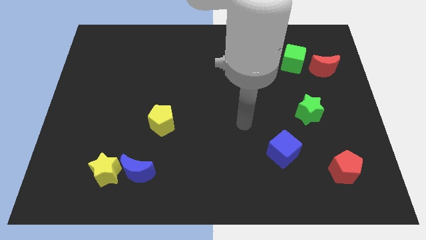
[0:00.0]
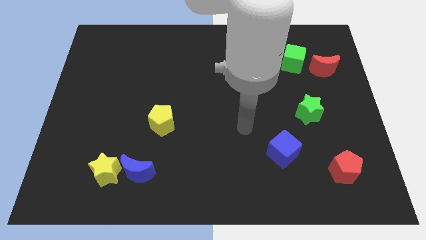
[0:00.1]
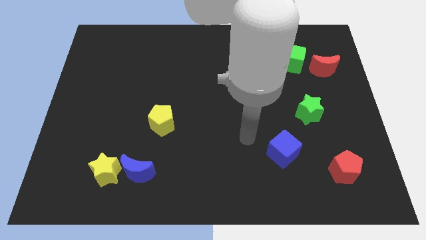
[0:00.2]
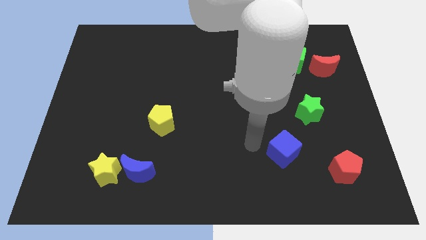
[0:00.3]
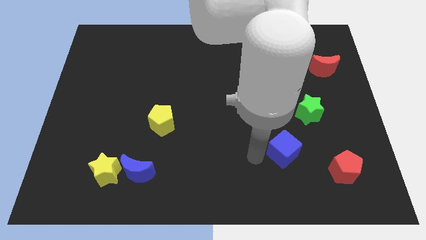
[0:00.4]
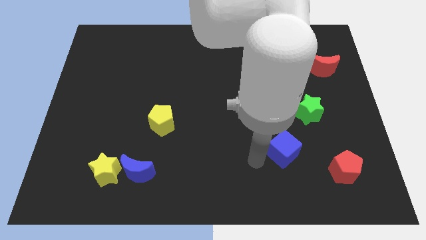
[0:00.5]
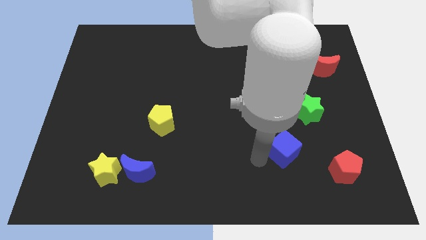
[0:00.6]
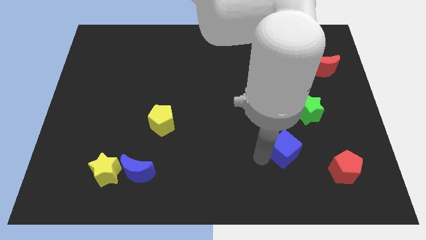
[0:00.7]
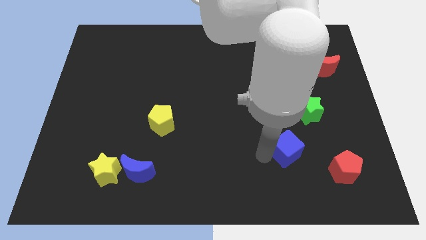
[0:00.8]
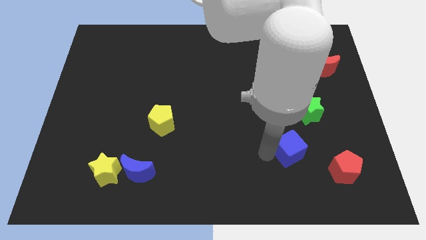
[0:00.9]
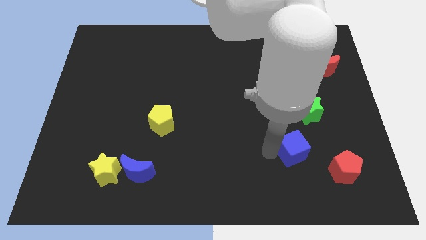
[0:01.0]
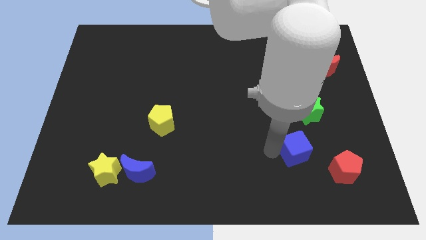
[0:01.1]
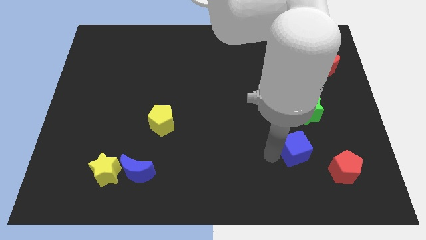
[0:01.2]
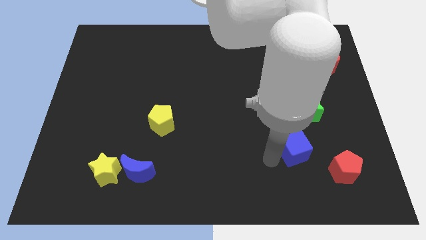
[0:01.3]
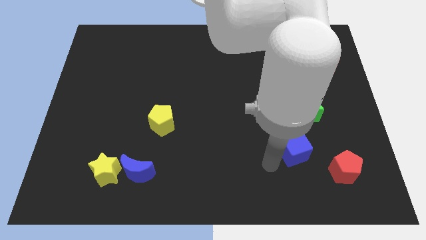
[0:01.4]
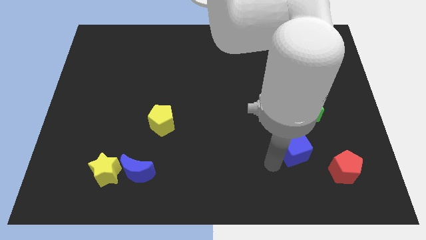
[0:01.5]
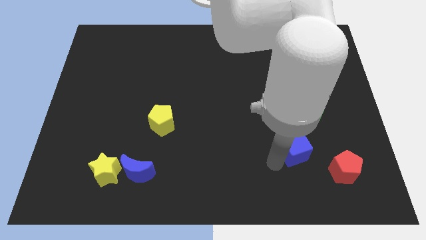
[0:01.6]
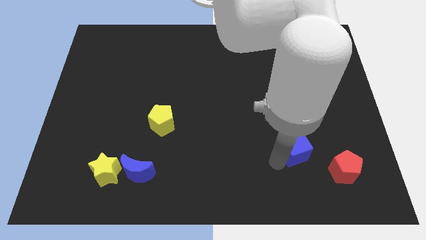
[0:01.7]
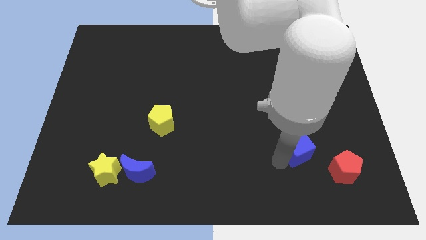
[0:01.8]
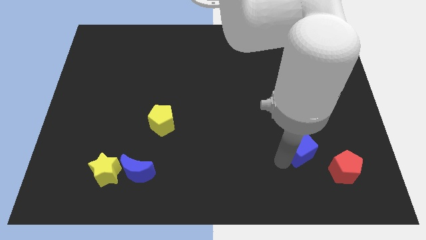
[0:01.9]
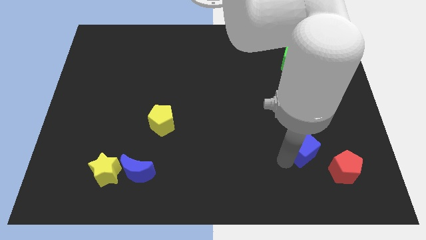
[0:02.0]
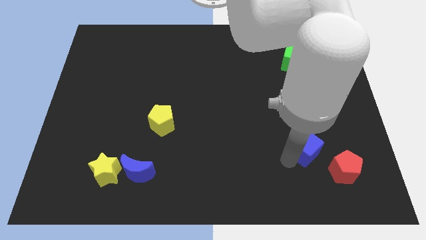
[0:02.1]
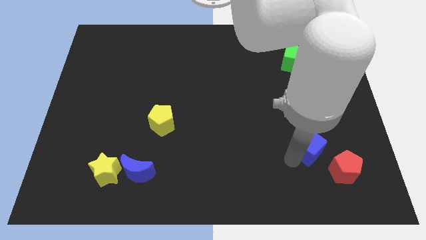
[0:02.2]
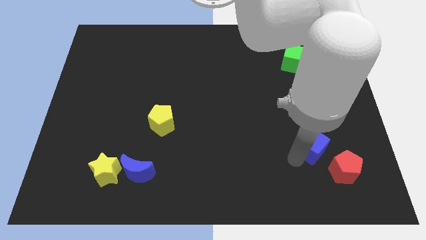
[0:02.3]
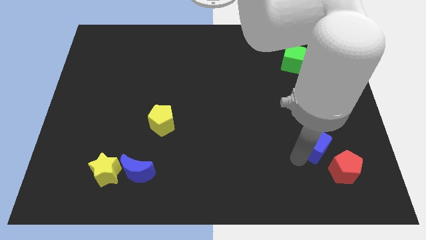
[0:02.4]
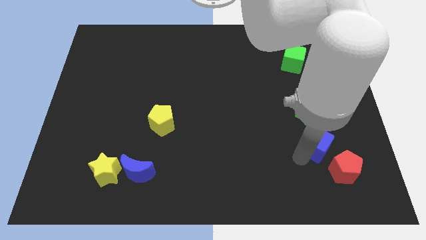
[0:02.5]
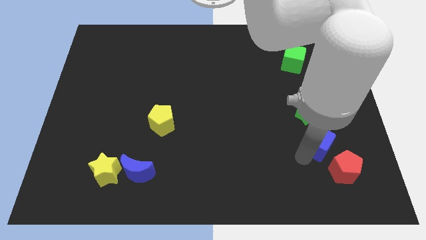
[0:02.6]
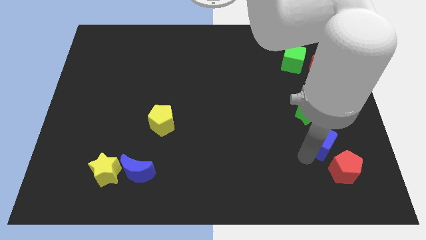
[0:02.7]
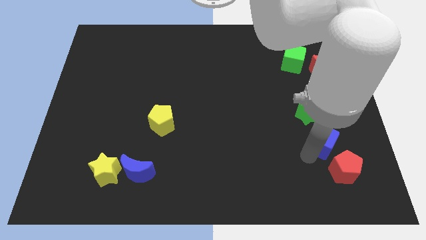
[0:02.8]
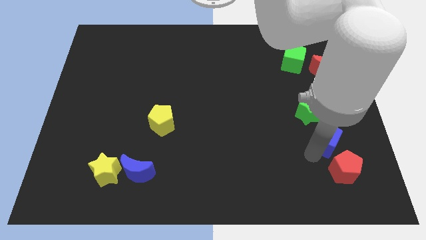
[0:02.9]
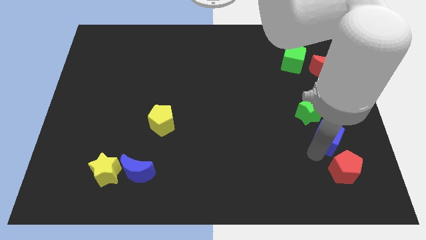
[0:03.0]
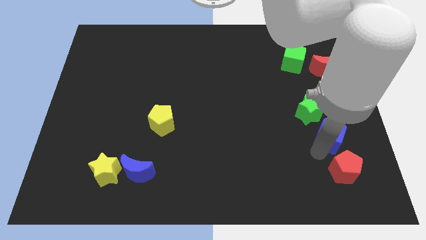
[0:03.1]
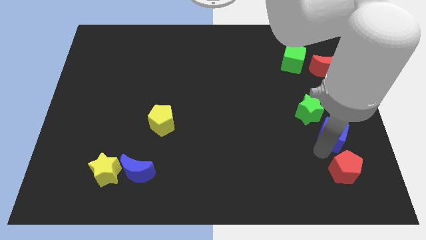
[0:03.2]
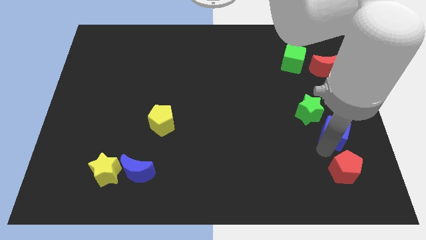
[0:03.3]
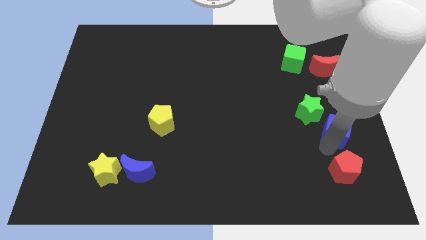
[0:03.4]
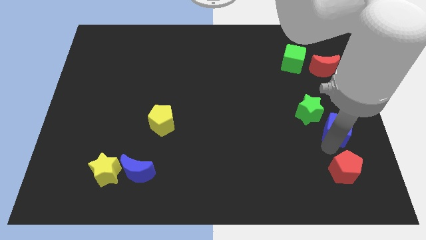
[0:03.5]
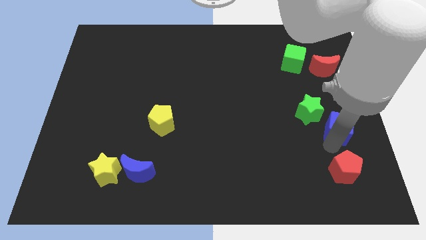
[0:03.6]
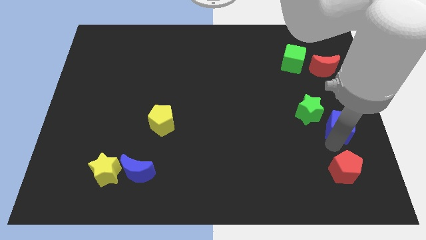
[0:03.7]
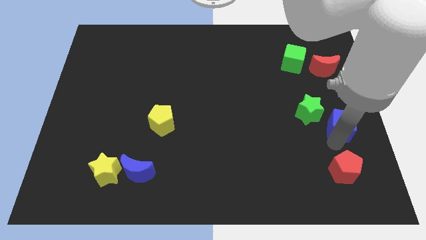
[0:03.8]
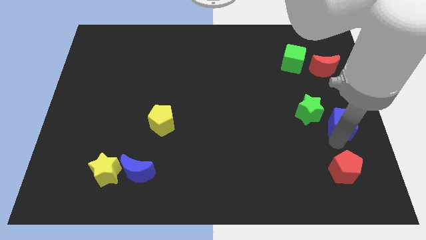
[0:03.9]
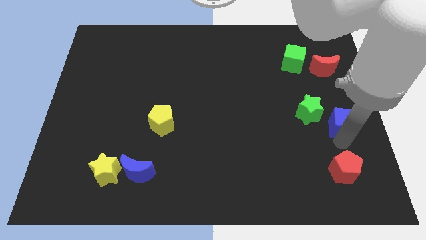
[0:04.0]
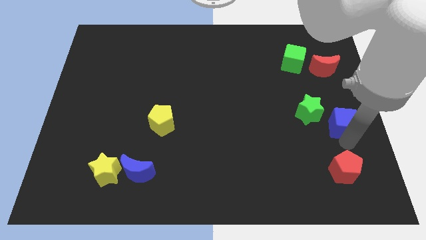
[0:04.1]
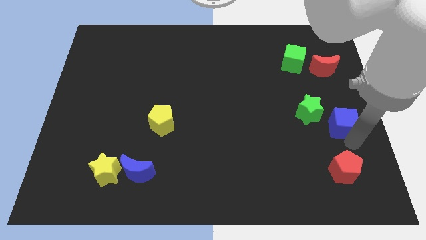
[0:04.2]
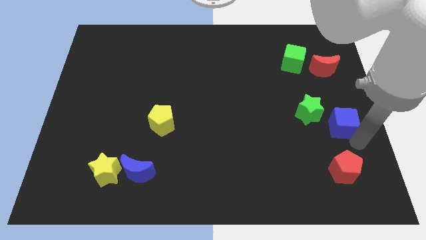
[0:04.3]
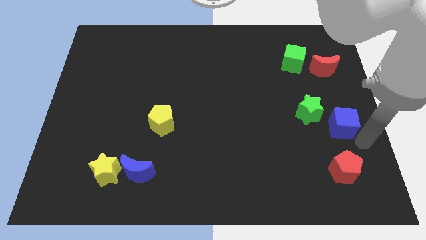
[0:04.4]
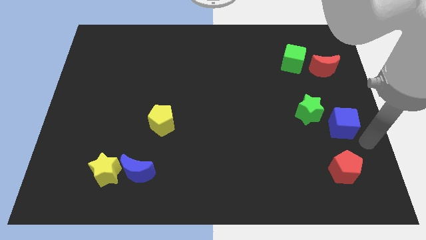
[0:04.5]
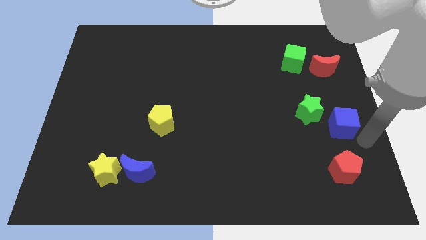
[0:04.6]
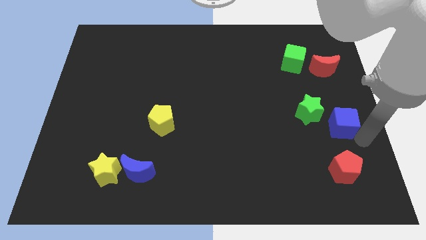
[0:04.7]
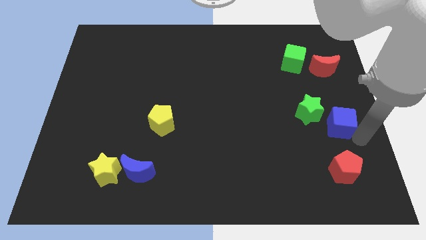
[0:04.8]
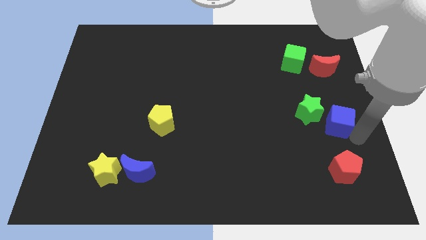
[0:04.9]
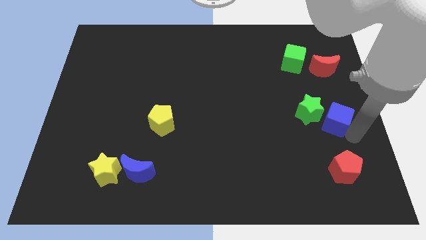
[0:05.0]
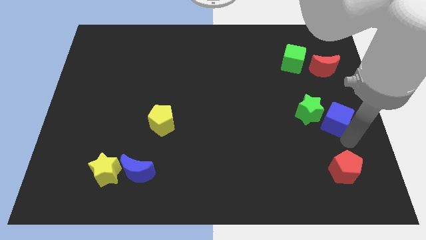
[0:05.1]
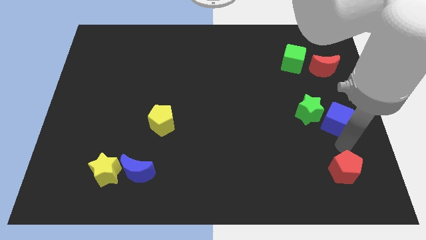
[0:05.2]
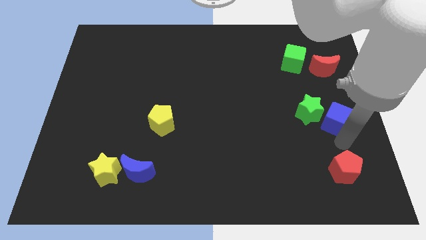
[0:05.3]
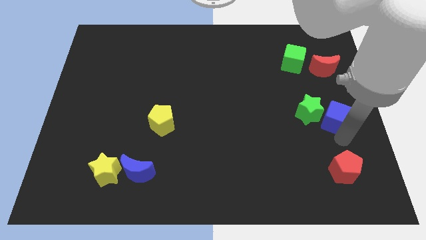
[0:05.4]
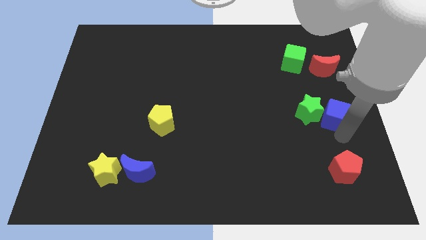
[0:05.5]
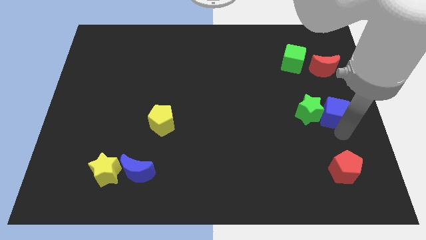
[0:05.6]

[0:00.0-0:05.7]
push the blue cube to the top right of the green star

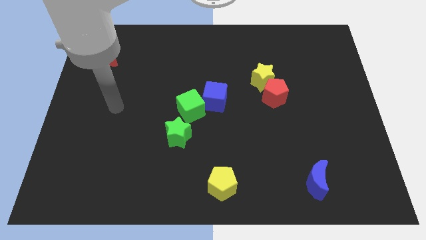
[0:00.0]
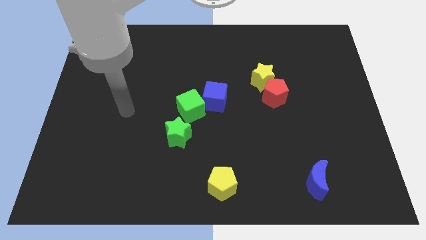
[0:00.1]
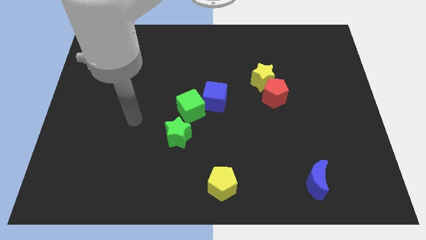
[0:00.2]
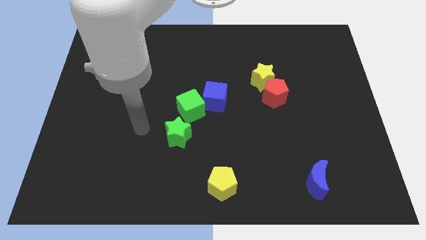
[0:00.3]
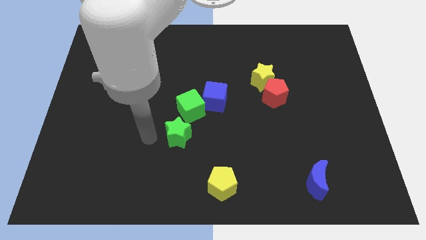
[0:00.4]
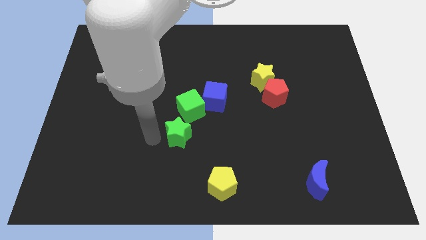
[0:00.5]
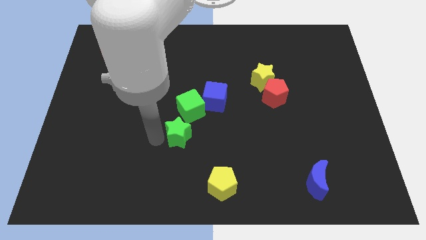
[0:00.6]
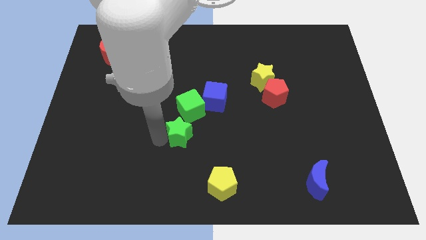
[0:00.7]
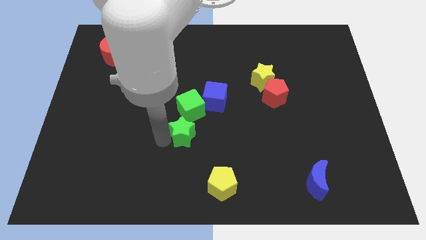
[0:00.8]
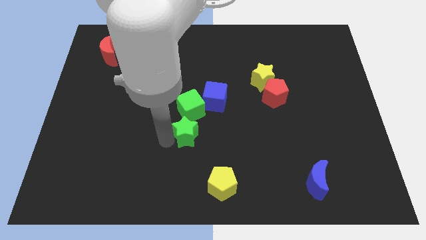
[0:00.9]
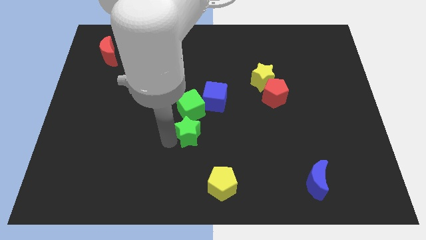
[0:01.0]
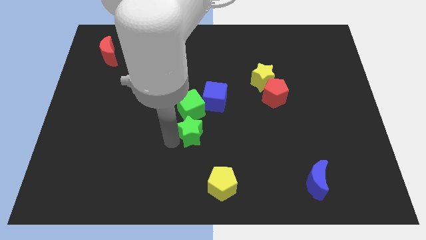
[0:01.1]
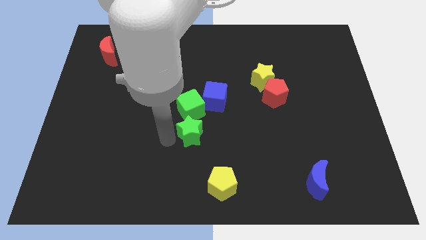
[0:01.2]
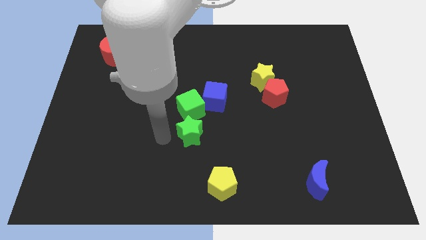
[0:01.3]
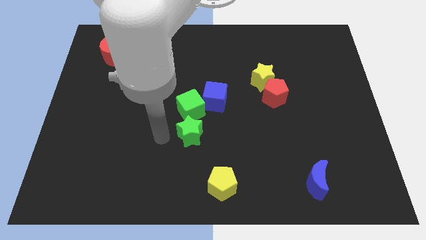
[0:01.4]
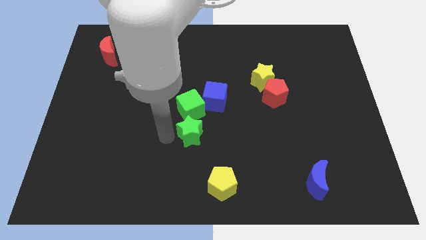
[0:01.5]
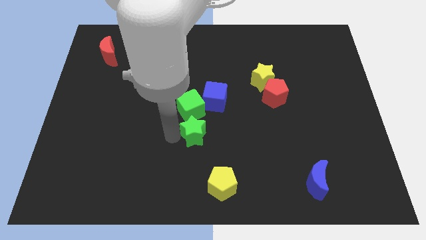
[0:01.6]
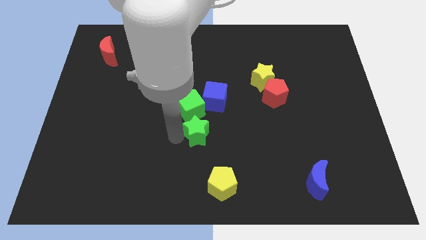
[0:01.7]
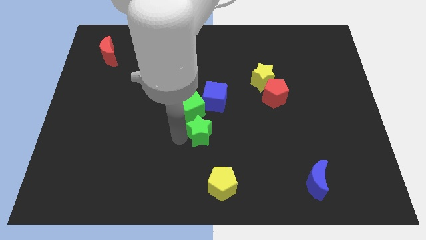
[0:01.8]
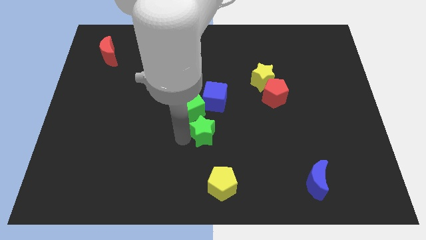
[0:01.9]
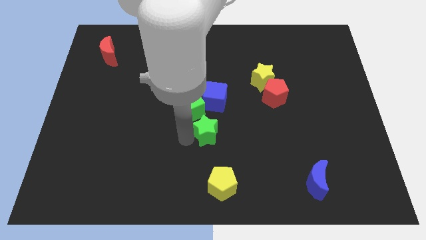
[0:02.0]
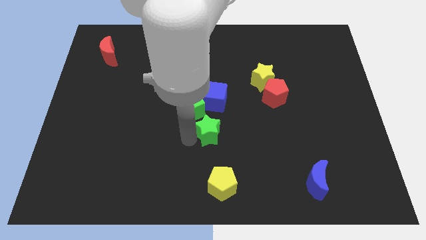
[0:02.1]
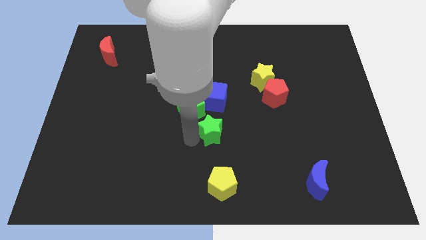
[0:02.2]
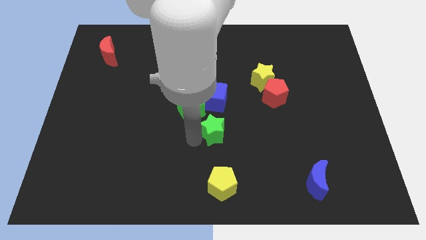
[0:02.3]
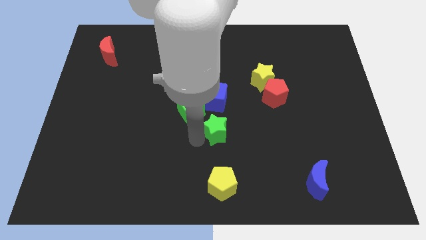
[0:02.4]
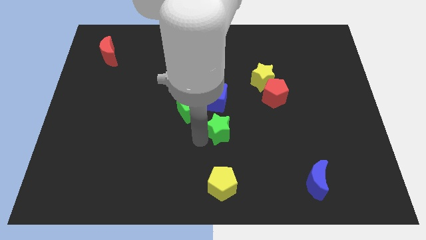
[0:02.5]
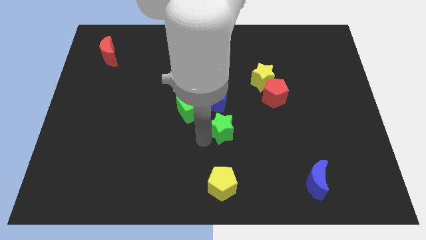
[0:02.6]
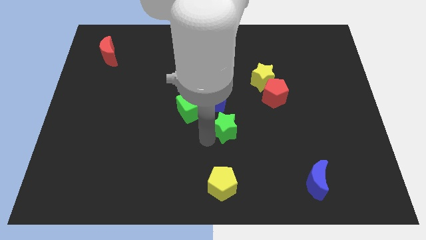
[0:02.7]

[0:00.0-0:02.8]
push the green star to the bottom right of the blue cube
